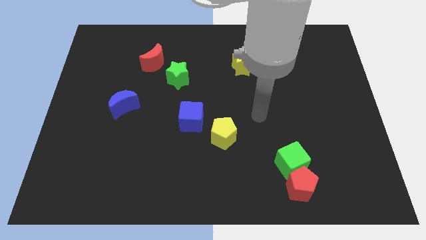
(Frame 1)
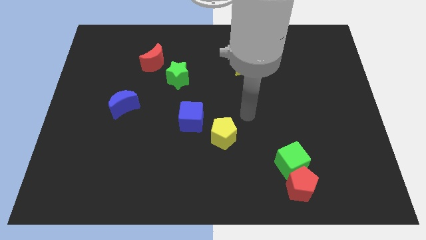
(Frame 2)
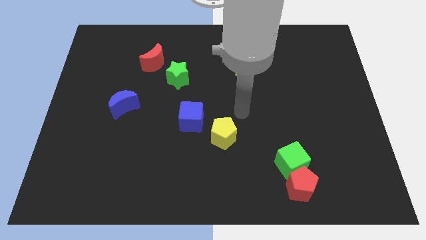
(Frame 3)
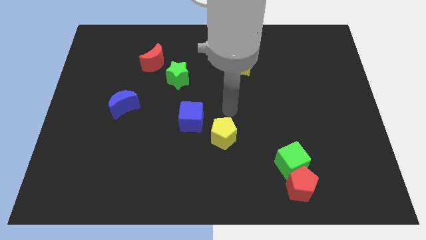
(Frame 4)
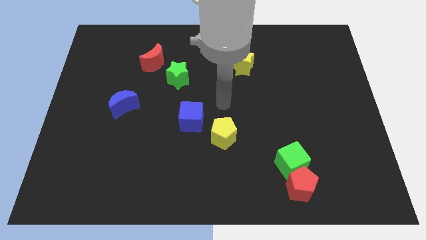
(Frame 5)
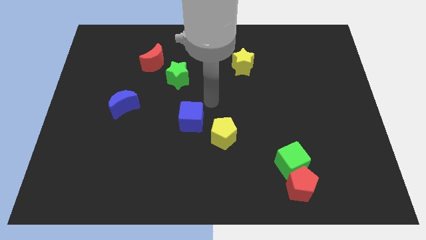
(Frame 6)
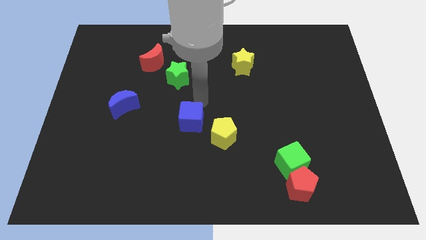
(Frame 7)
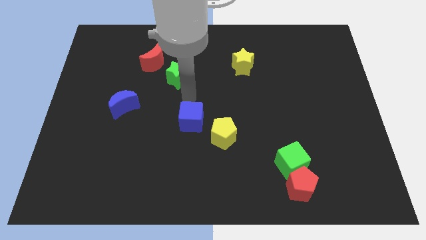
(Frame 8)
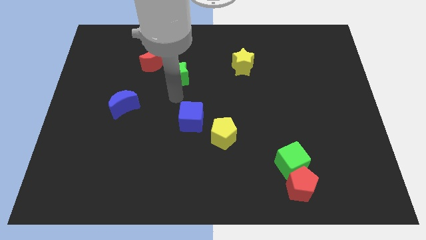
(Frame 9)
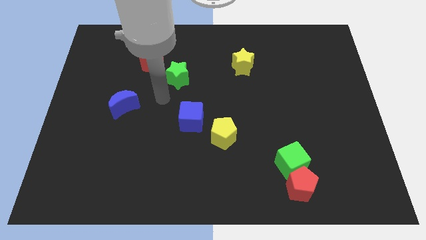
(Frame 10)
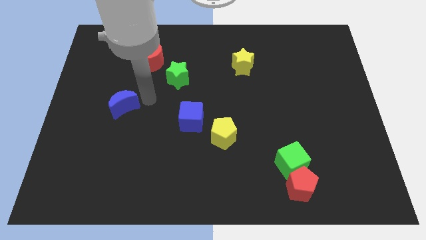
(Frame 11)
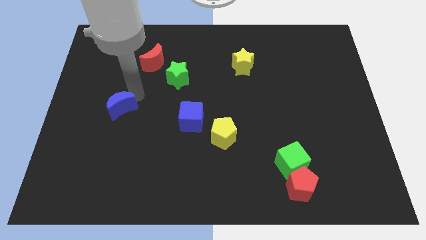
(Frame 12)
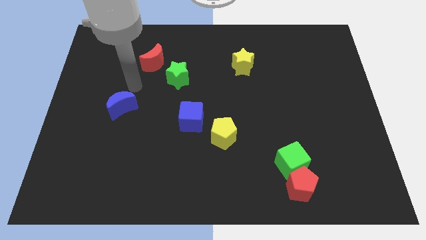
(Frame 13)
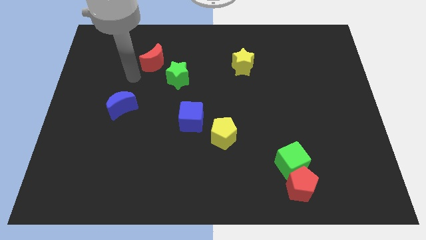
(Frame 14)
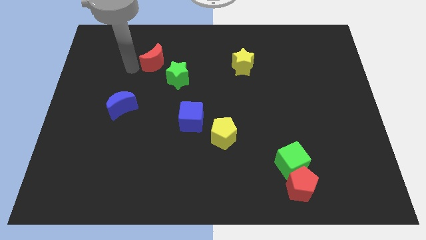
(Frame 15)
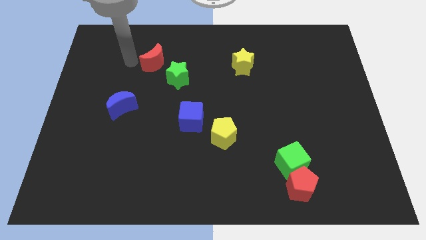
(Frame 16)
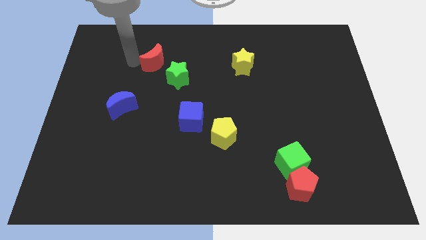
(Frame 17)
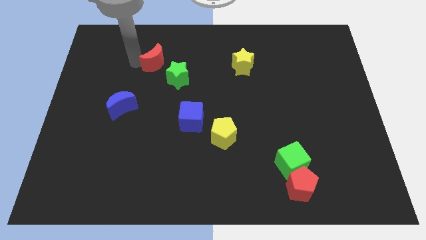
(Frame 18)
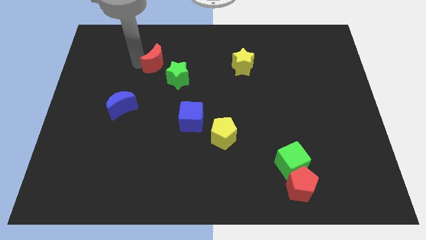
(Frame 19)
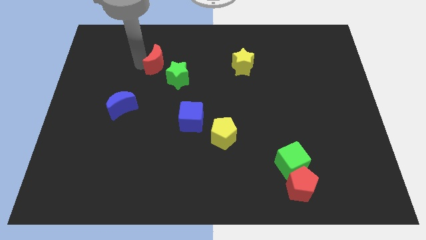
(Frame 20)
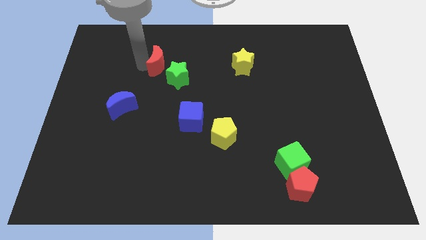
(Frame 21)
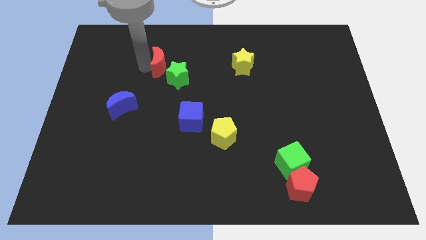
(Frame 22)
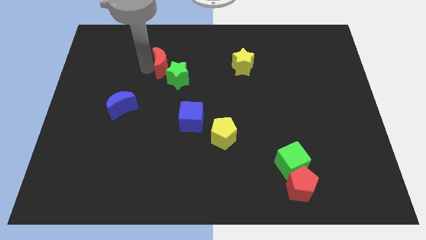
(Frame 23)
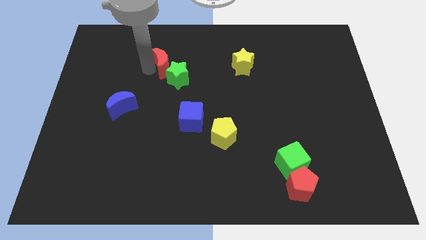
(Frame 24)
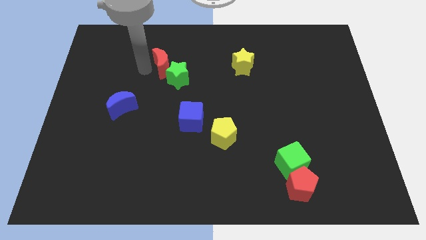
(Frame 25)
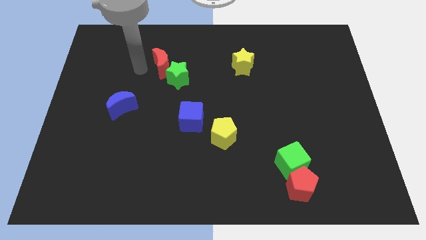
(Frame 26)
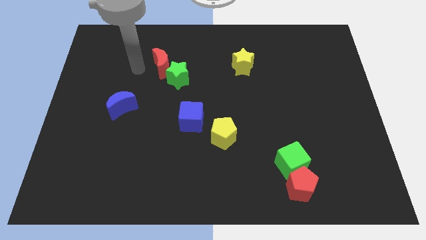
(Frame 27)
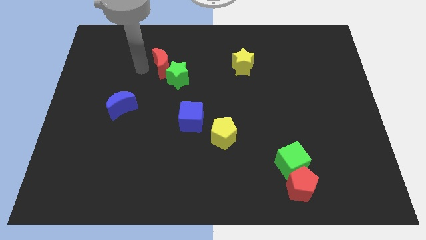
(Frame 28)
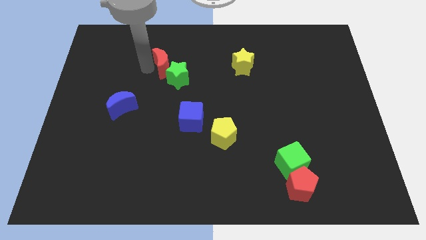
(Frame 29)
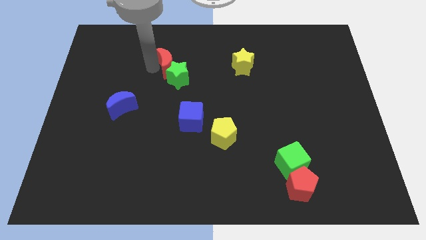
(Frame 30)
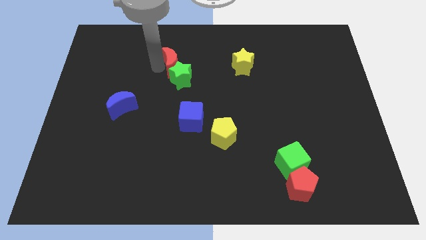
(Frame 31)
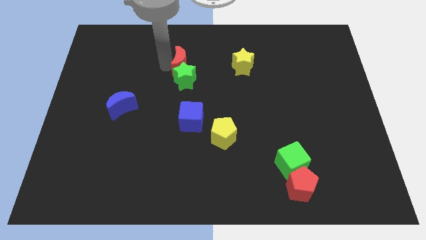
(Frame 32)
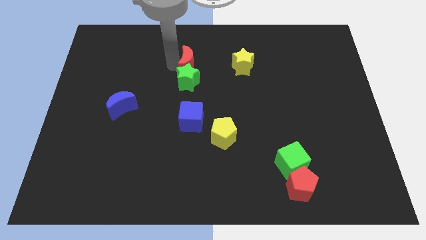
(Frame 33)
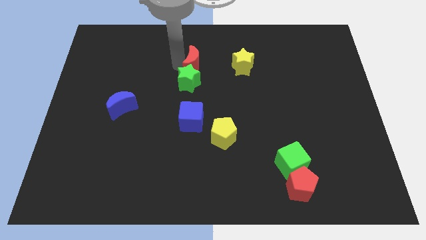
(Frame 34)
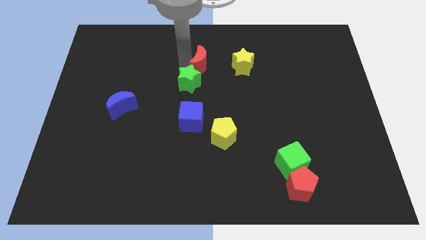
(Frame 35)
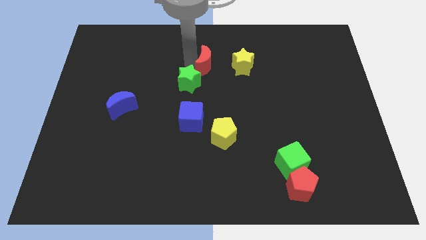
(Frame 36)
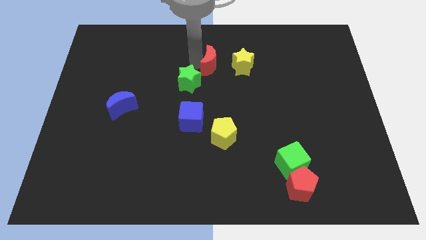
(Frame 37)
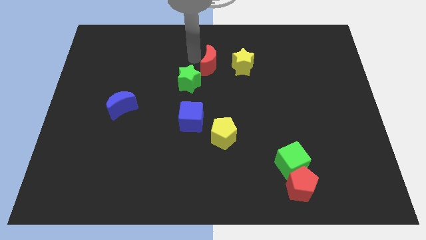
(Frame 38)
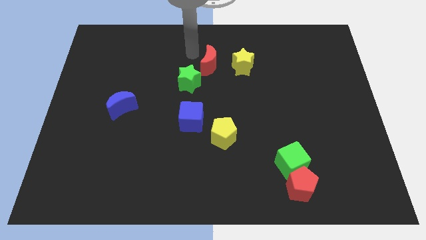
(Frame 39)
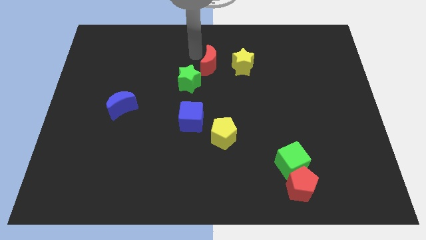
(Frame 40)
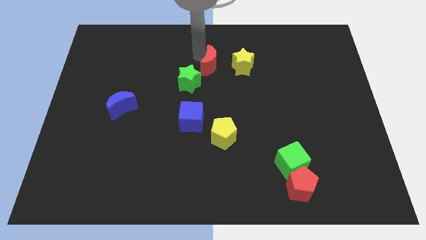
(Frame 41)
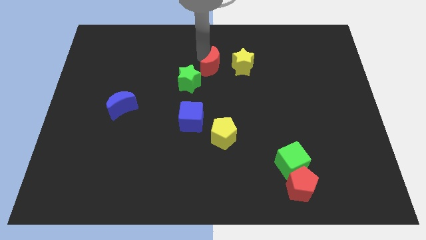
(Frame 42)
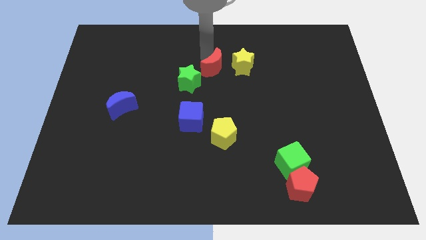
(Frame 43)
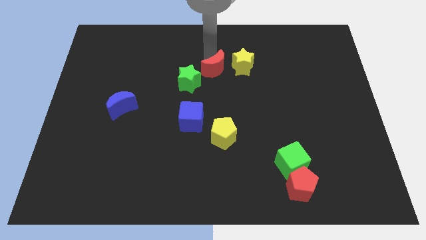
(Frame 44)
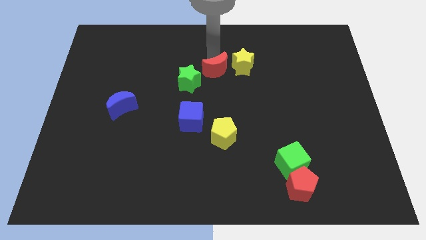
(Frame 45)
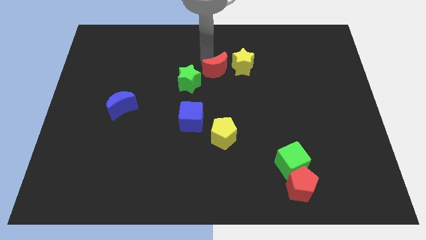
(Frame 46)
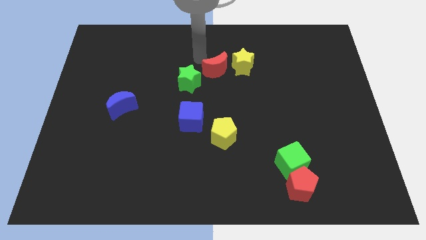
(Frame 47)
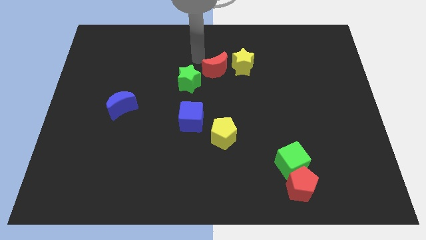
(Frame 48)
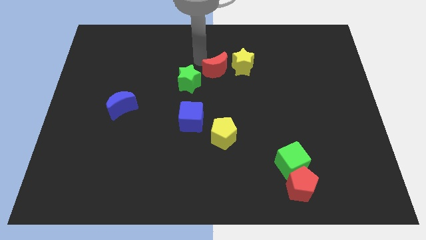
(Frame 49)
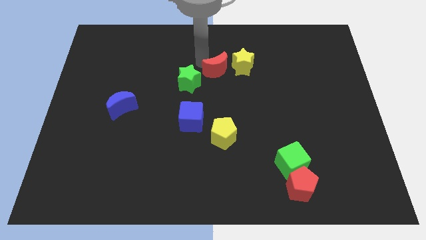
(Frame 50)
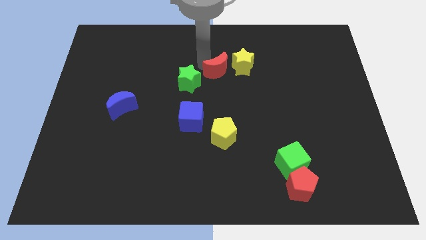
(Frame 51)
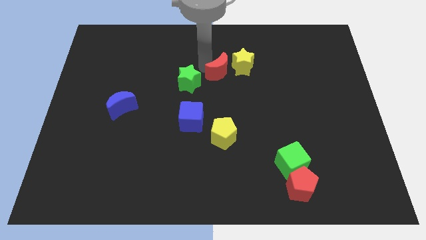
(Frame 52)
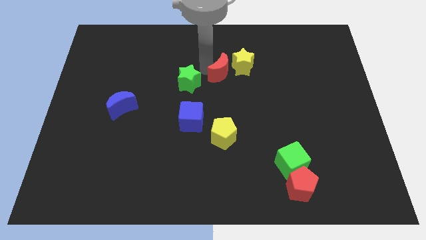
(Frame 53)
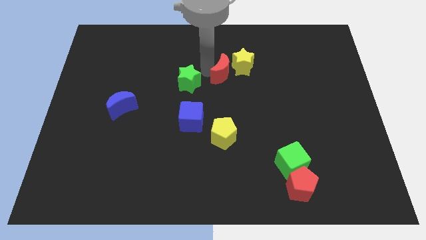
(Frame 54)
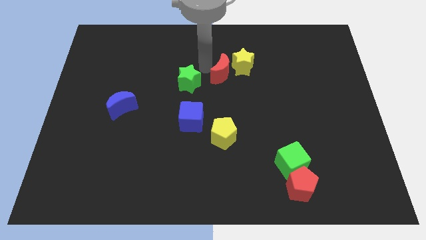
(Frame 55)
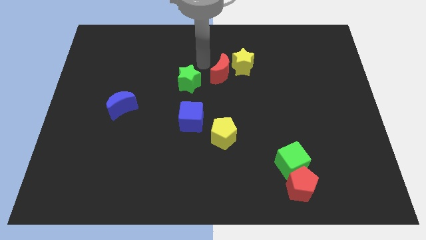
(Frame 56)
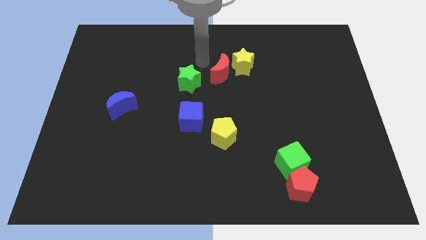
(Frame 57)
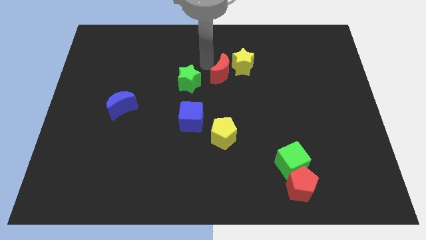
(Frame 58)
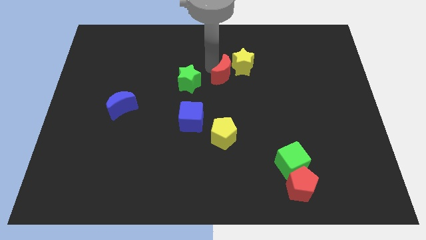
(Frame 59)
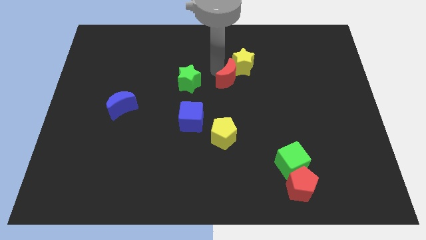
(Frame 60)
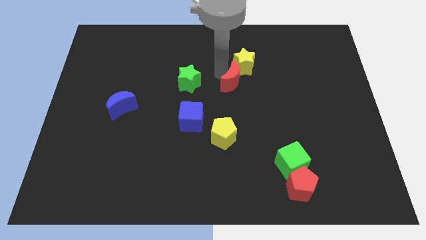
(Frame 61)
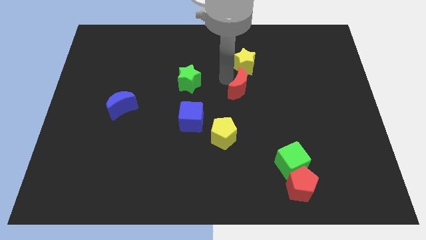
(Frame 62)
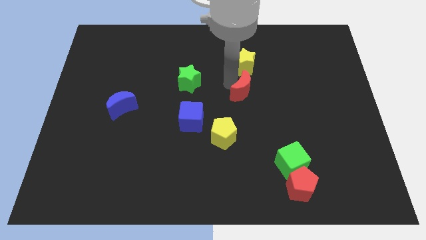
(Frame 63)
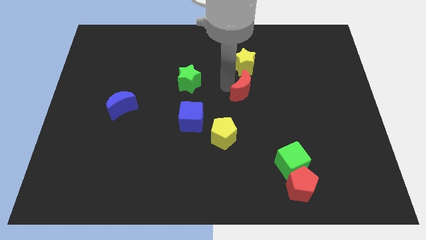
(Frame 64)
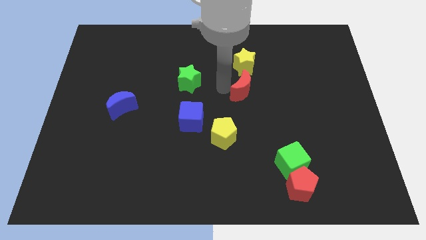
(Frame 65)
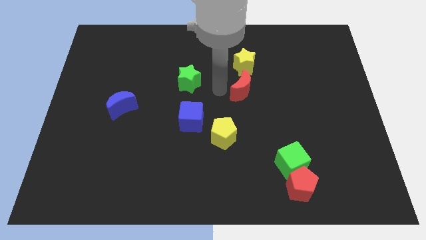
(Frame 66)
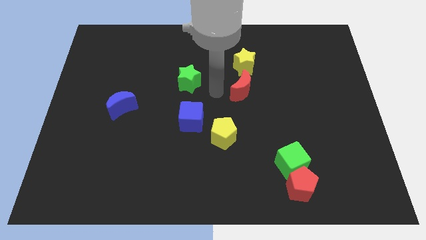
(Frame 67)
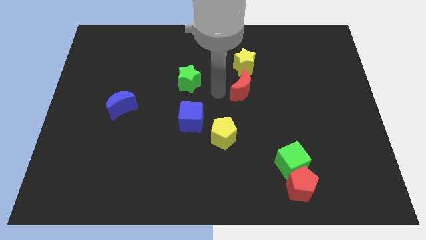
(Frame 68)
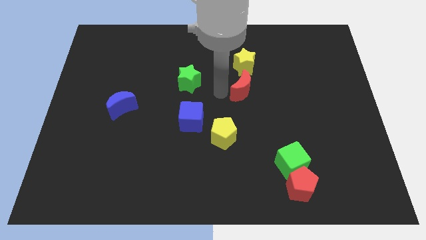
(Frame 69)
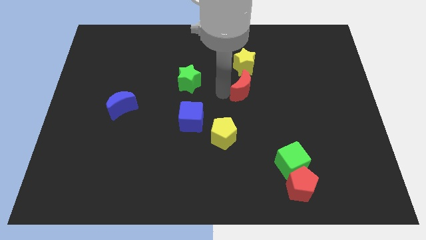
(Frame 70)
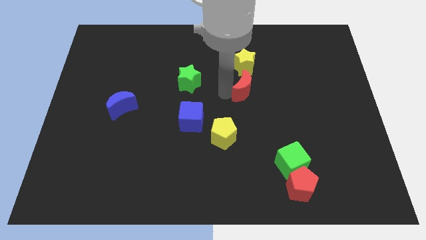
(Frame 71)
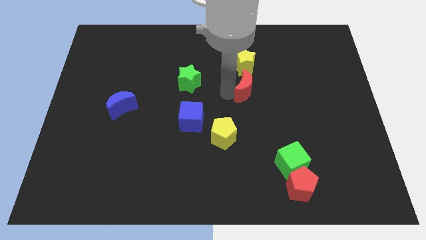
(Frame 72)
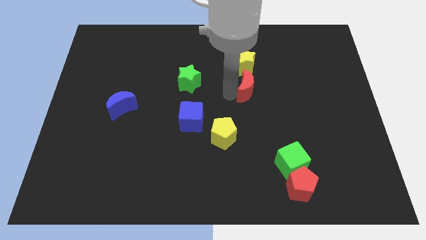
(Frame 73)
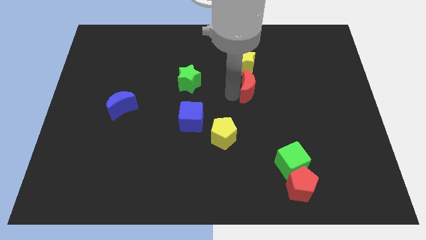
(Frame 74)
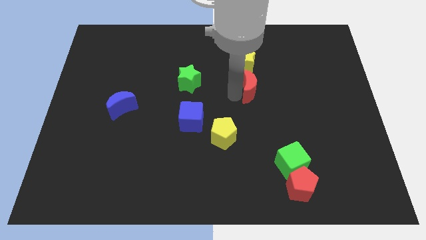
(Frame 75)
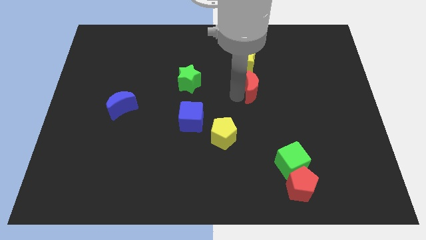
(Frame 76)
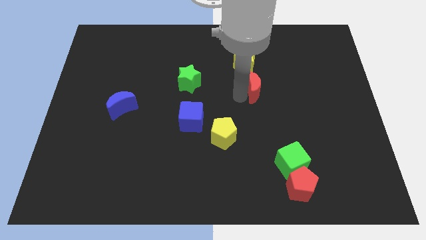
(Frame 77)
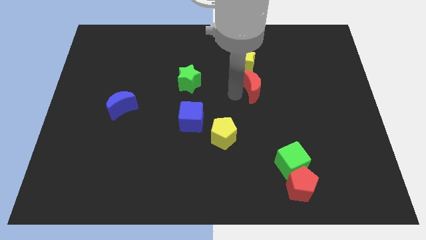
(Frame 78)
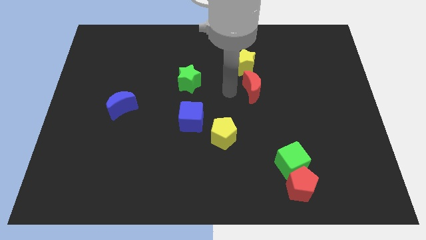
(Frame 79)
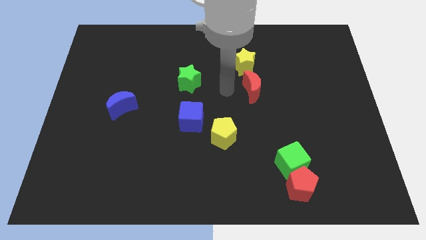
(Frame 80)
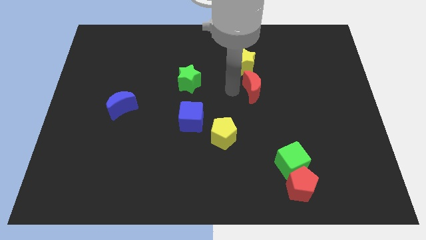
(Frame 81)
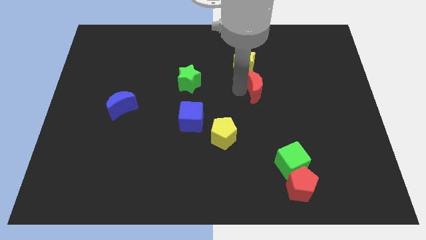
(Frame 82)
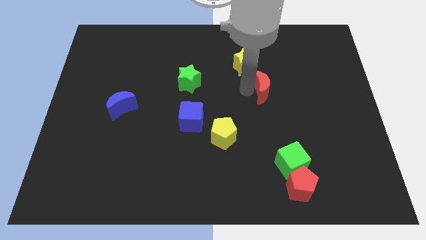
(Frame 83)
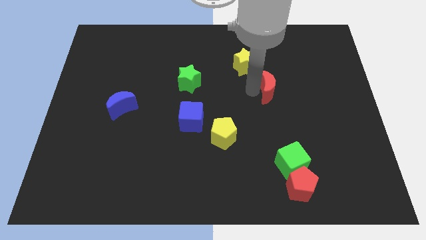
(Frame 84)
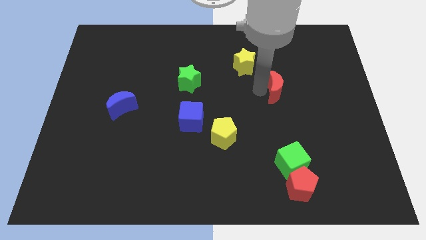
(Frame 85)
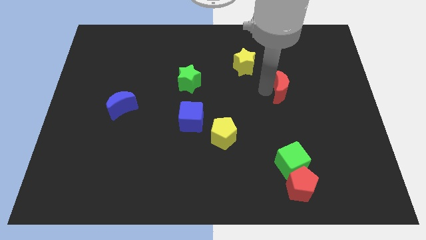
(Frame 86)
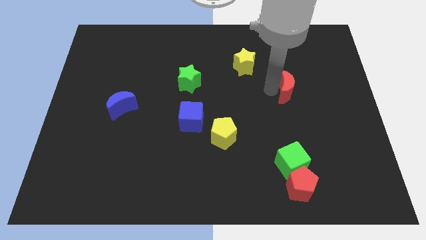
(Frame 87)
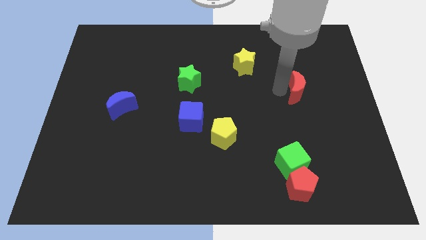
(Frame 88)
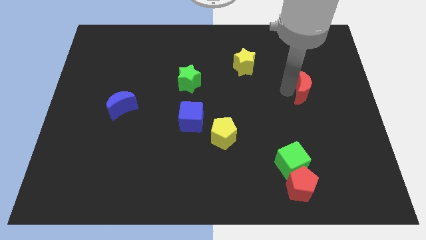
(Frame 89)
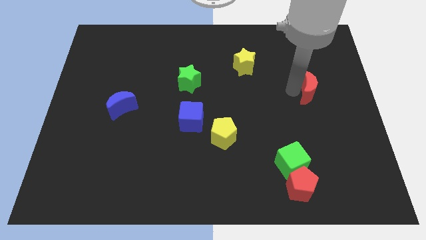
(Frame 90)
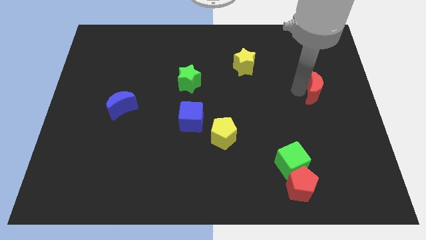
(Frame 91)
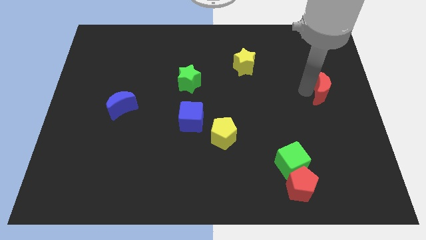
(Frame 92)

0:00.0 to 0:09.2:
move the red moon to the right side
